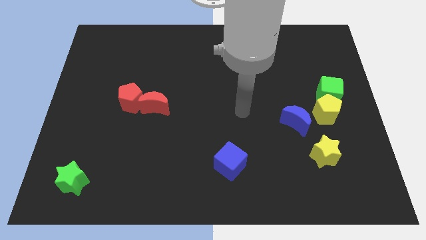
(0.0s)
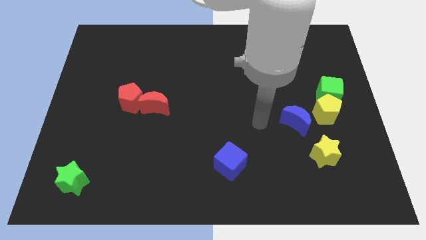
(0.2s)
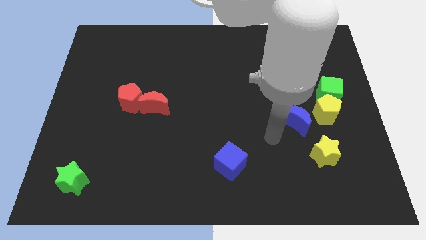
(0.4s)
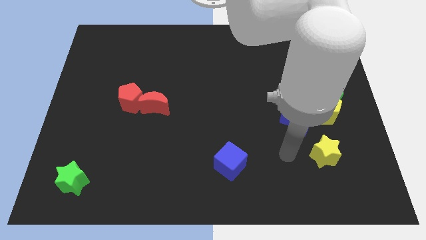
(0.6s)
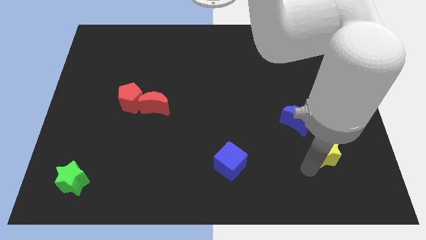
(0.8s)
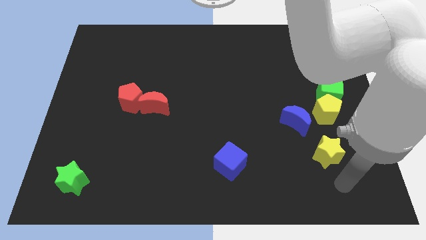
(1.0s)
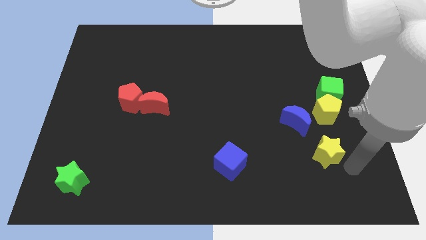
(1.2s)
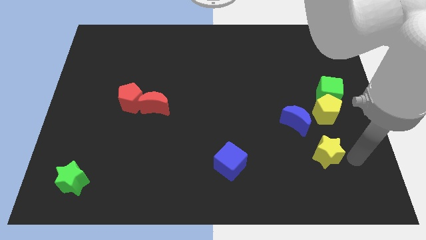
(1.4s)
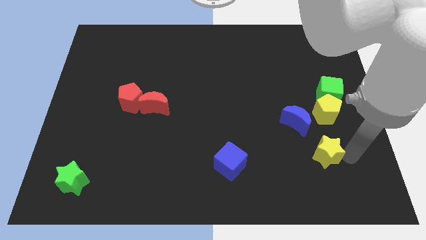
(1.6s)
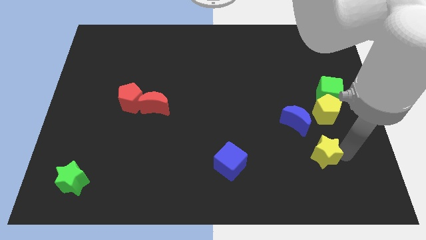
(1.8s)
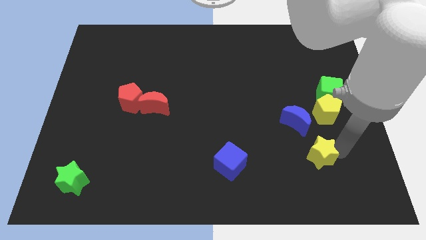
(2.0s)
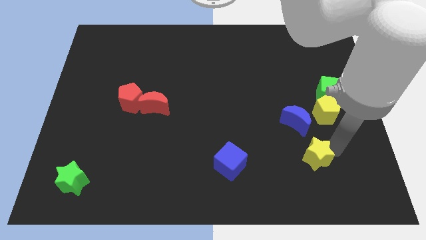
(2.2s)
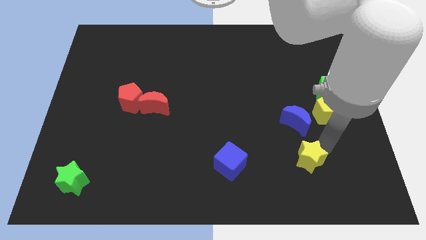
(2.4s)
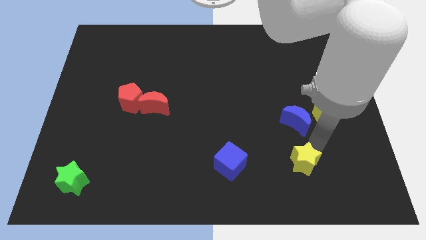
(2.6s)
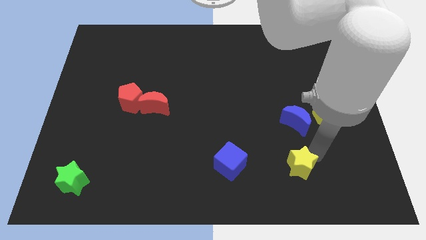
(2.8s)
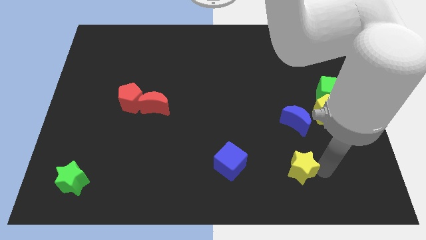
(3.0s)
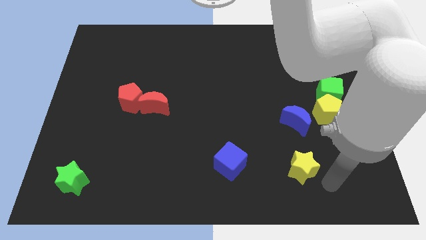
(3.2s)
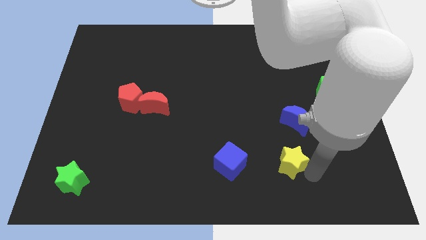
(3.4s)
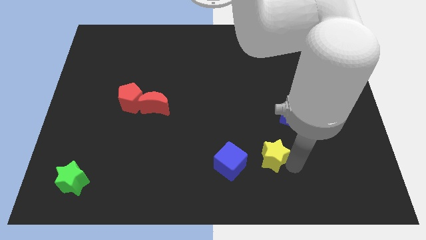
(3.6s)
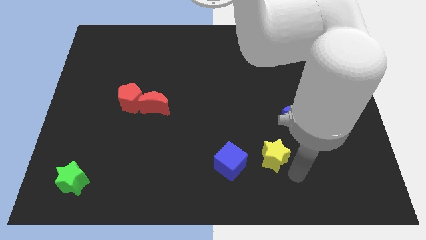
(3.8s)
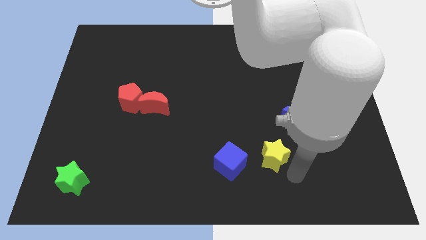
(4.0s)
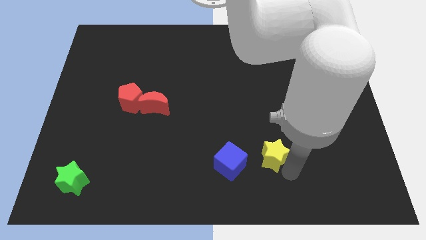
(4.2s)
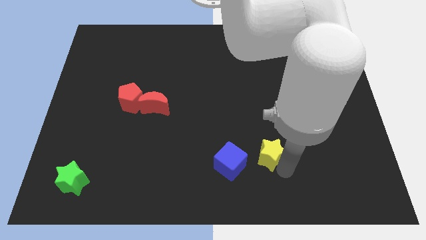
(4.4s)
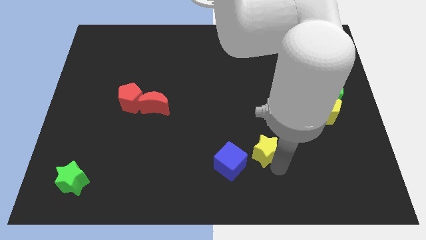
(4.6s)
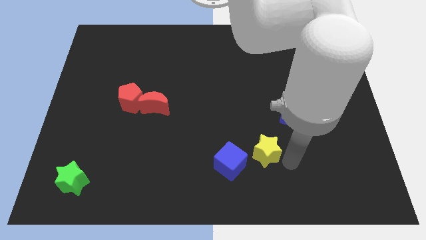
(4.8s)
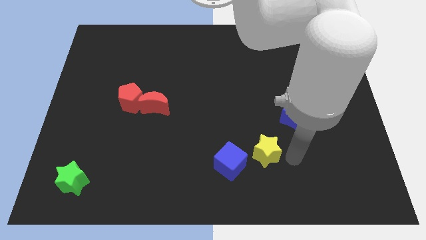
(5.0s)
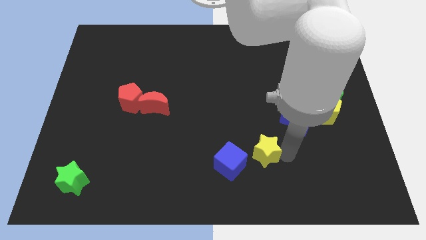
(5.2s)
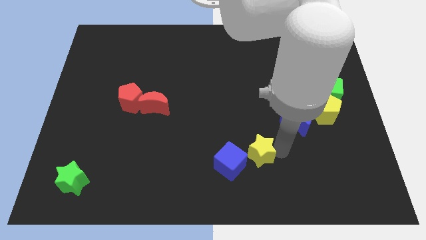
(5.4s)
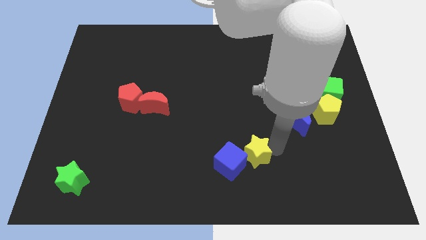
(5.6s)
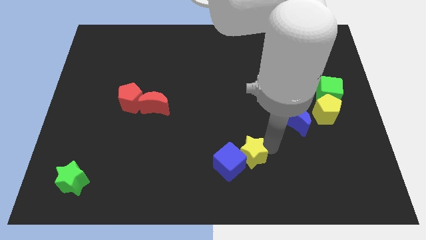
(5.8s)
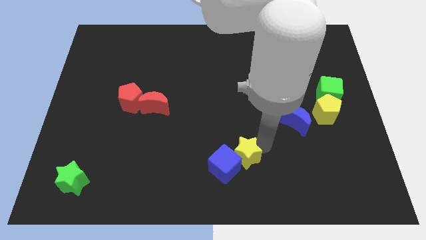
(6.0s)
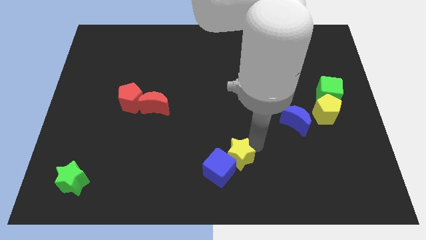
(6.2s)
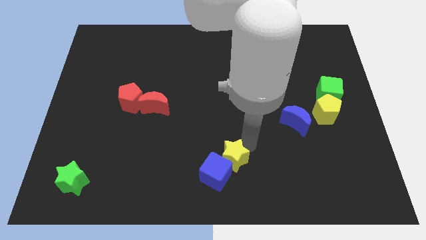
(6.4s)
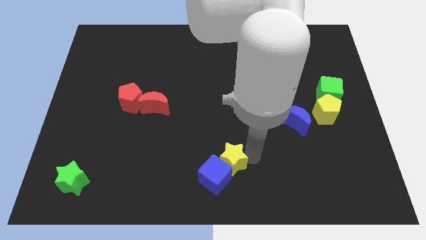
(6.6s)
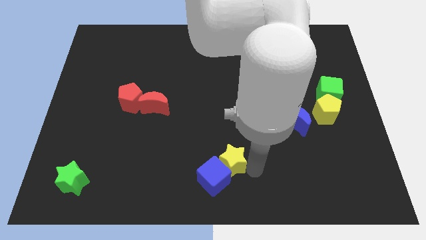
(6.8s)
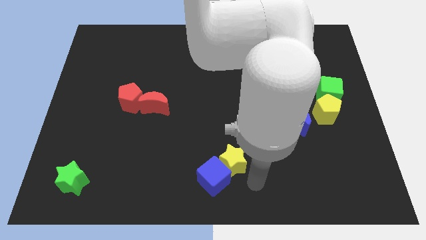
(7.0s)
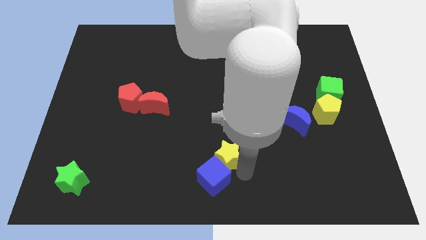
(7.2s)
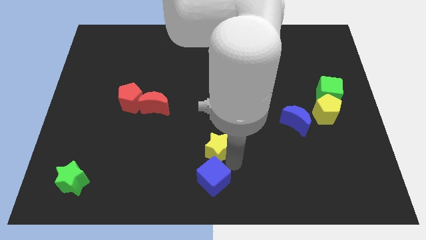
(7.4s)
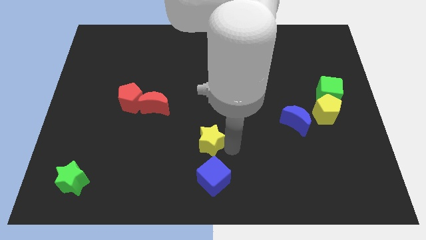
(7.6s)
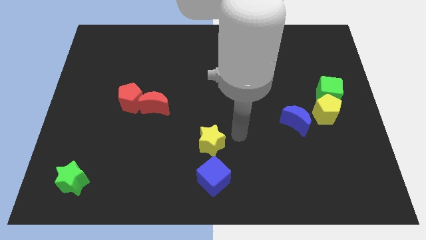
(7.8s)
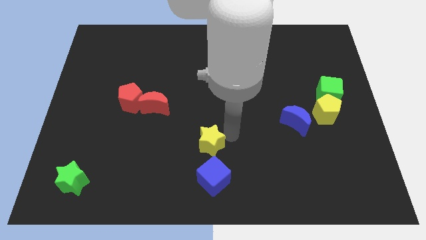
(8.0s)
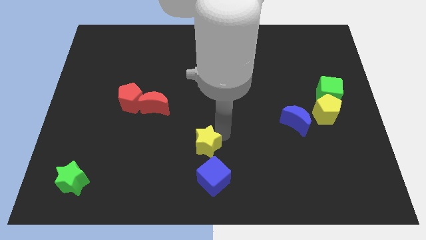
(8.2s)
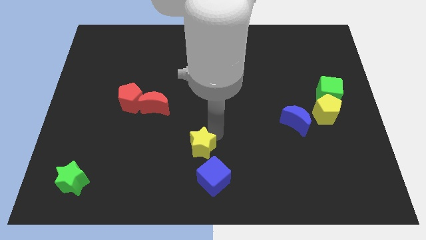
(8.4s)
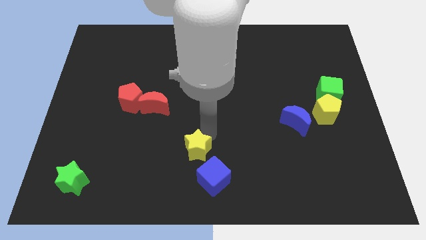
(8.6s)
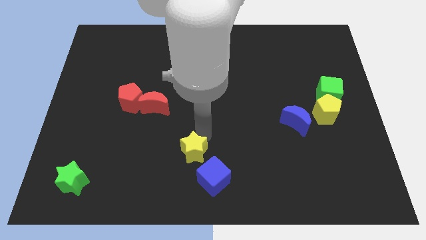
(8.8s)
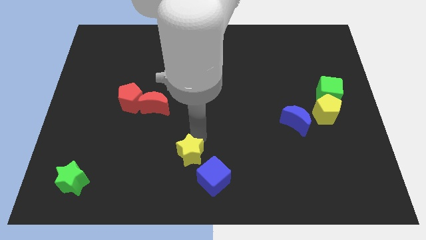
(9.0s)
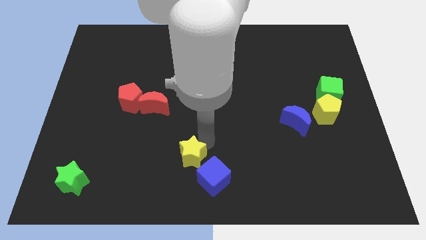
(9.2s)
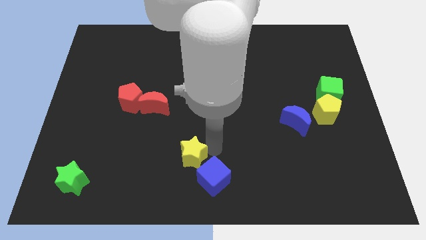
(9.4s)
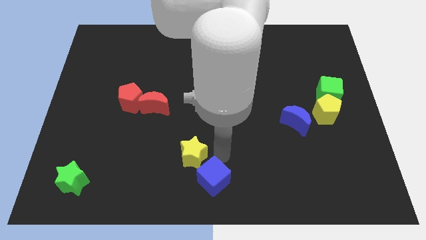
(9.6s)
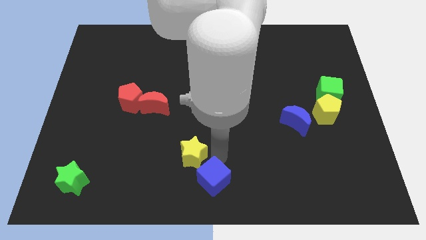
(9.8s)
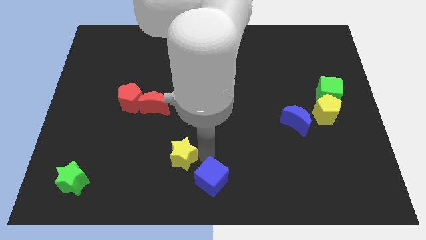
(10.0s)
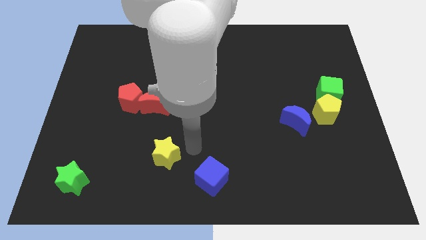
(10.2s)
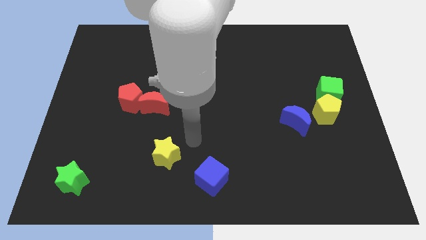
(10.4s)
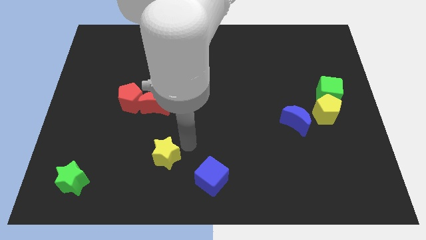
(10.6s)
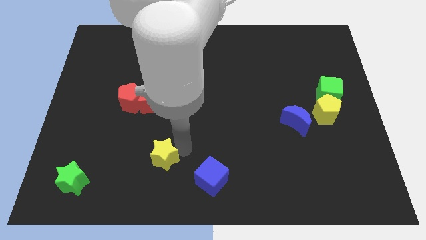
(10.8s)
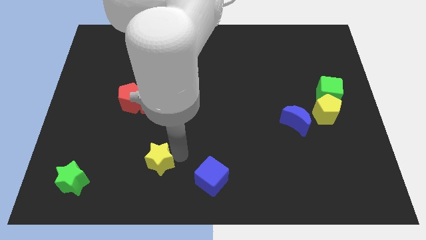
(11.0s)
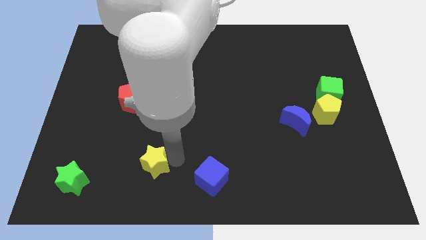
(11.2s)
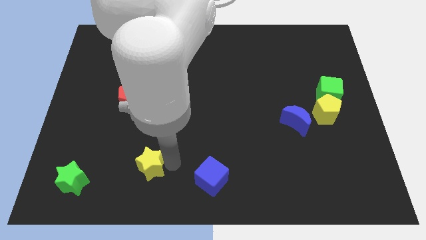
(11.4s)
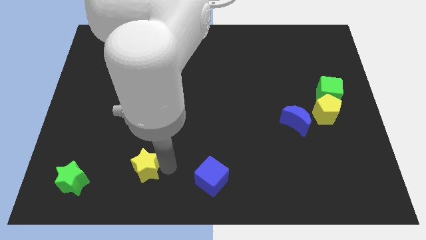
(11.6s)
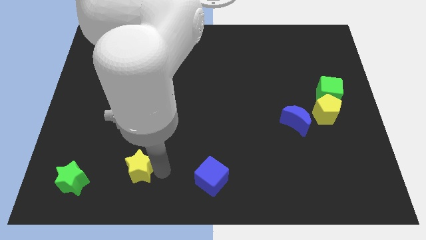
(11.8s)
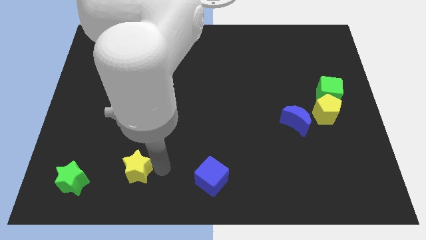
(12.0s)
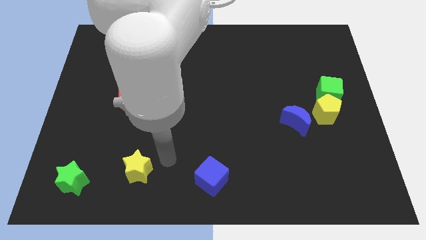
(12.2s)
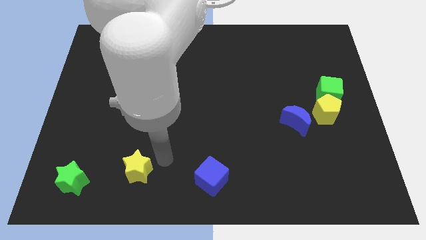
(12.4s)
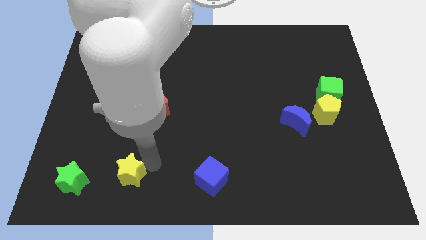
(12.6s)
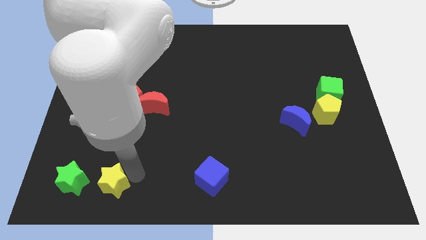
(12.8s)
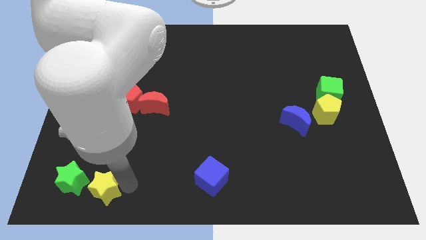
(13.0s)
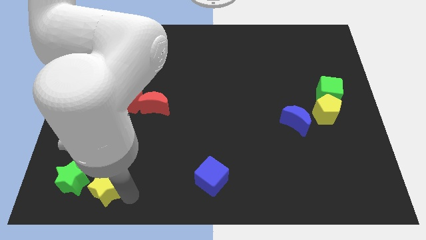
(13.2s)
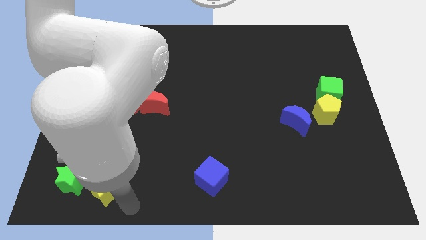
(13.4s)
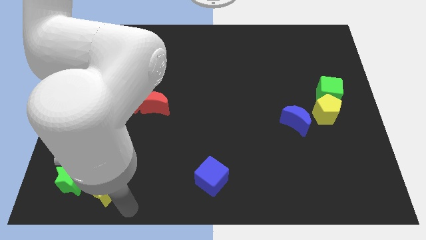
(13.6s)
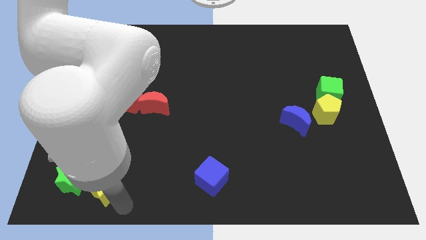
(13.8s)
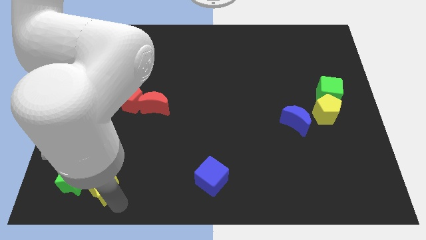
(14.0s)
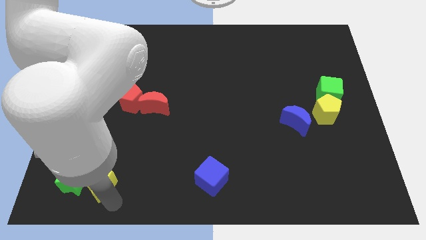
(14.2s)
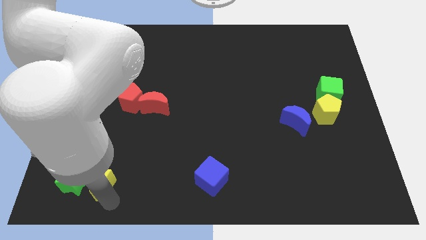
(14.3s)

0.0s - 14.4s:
push the yellow star towards the green star
